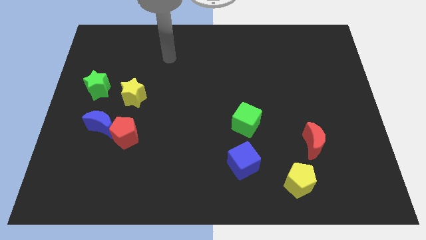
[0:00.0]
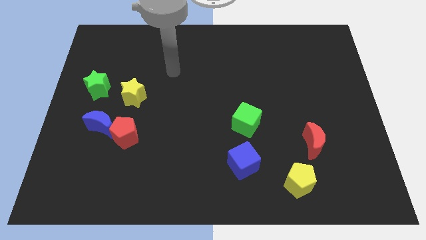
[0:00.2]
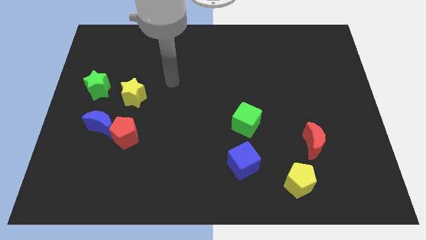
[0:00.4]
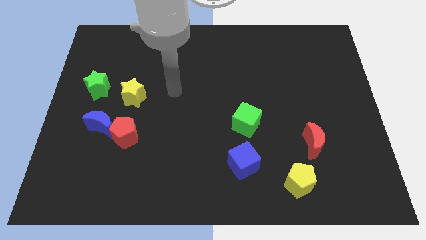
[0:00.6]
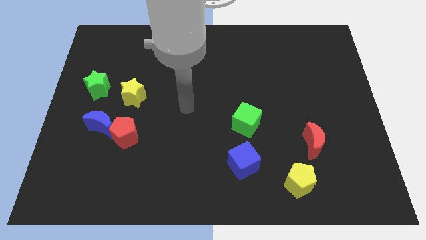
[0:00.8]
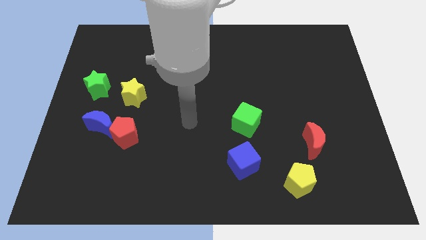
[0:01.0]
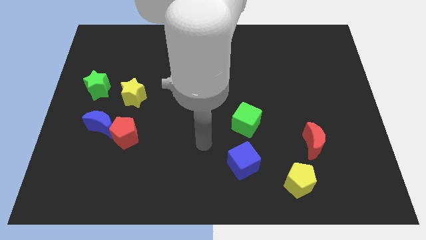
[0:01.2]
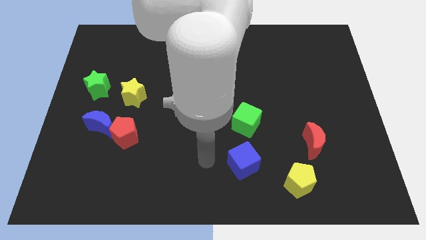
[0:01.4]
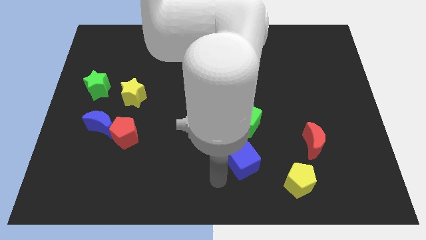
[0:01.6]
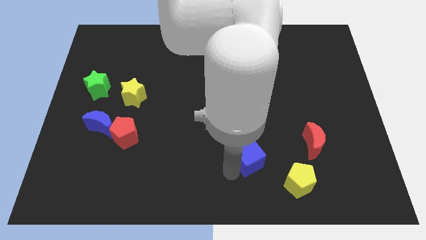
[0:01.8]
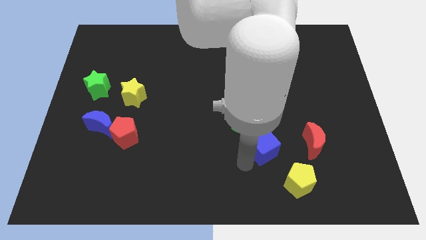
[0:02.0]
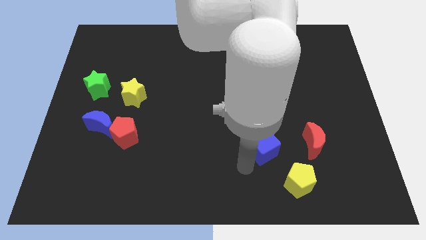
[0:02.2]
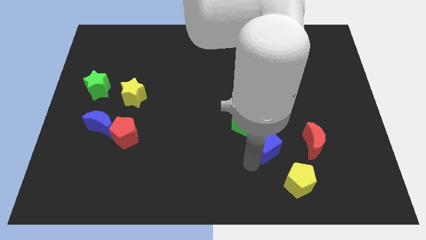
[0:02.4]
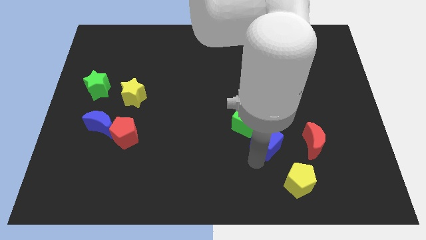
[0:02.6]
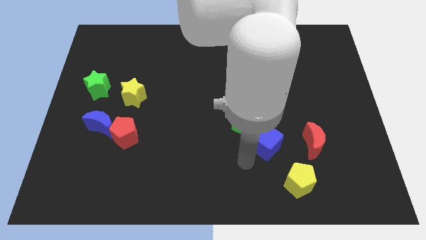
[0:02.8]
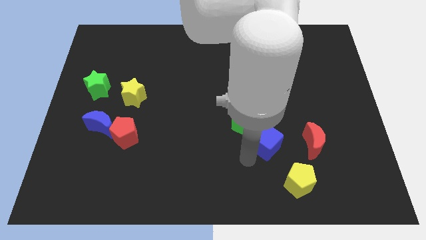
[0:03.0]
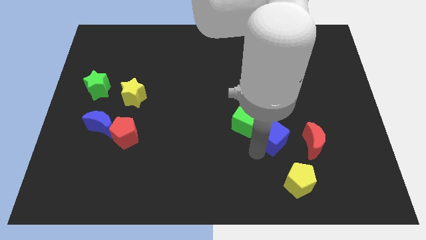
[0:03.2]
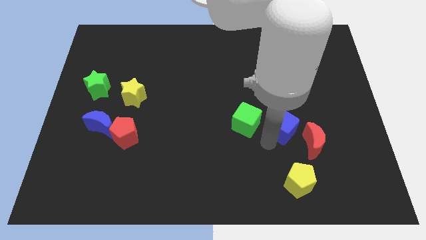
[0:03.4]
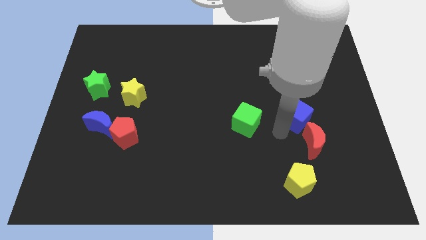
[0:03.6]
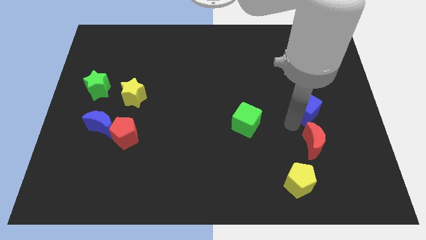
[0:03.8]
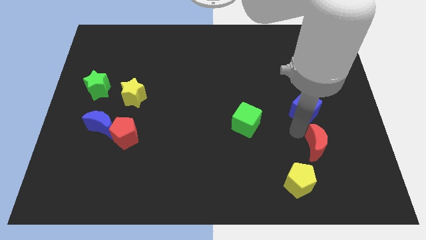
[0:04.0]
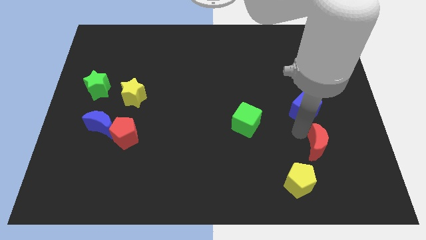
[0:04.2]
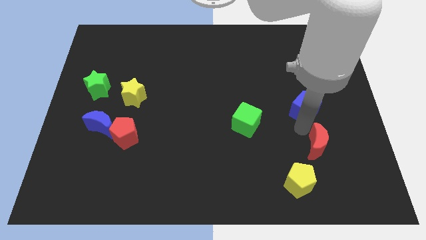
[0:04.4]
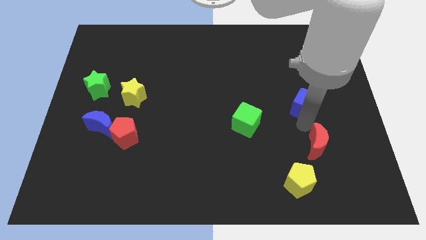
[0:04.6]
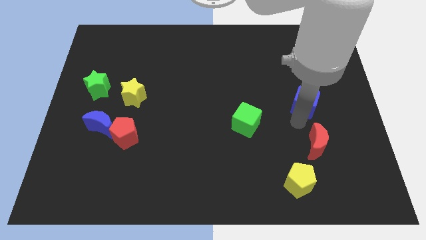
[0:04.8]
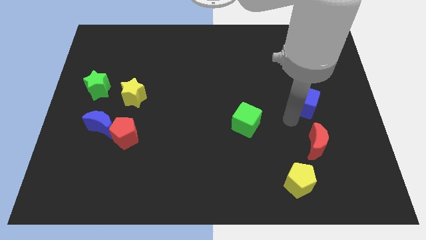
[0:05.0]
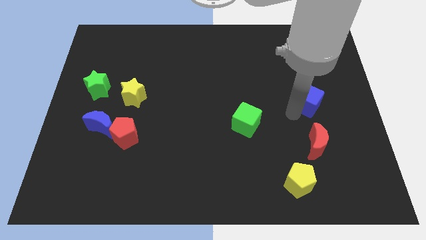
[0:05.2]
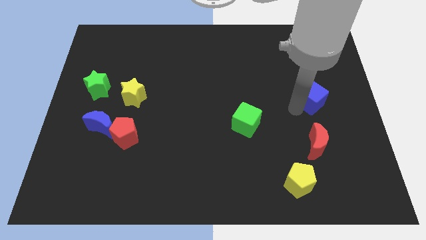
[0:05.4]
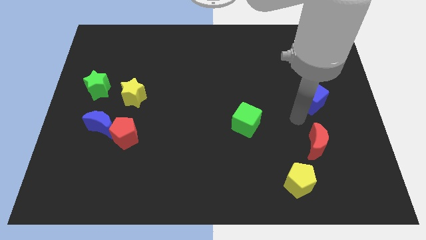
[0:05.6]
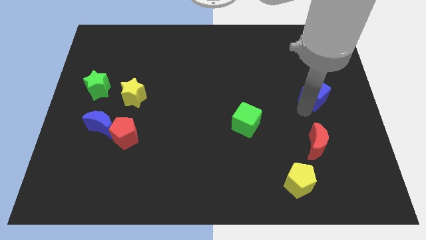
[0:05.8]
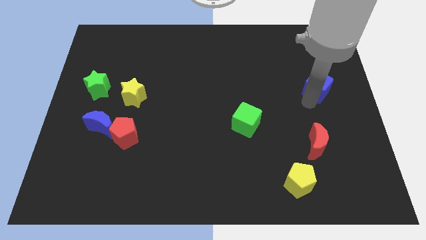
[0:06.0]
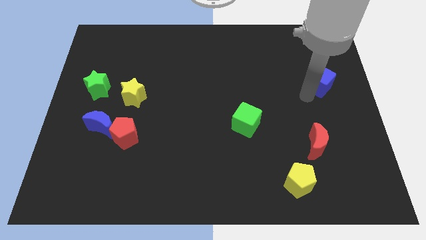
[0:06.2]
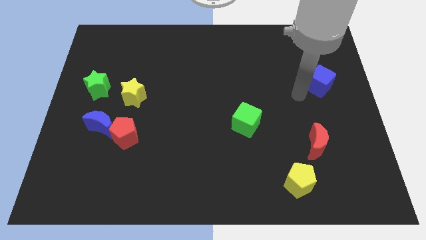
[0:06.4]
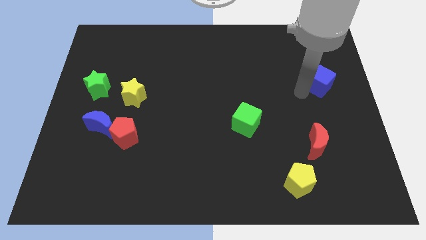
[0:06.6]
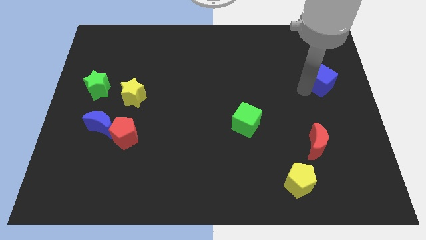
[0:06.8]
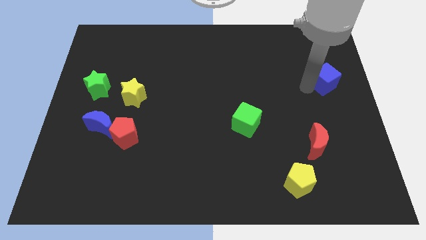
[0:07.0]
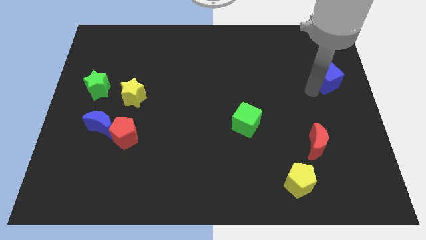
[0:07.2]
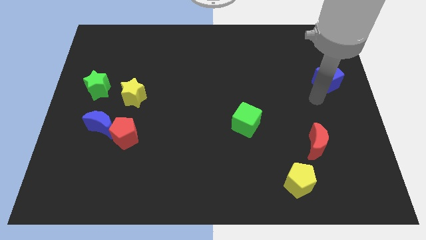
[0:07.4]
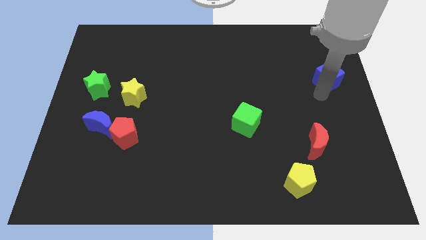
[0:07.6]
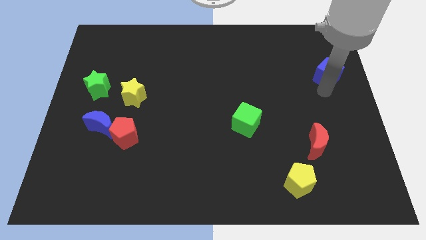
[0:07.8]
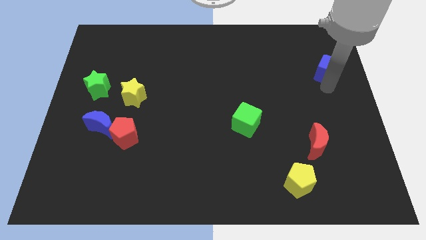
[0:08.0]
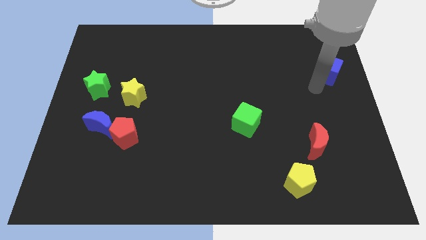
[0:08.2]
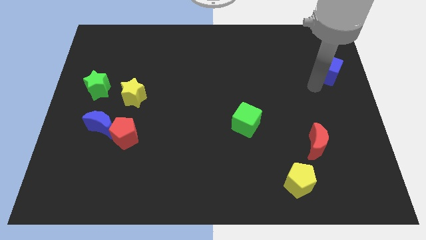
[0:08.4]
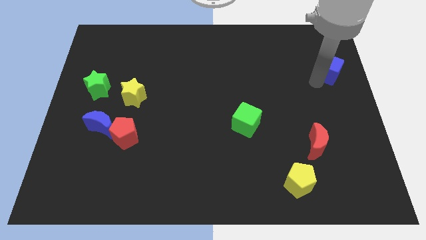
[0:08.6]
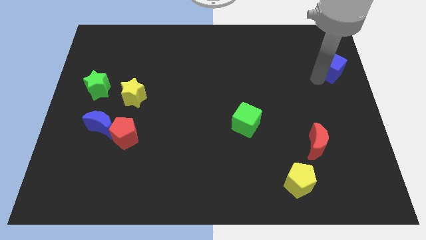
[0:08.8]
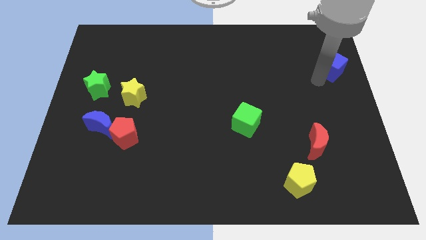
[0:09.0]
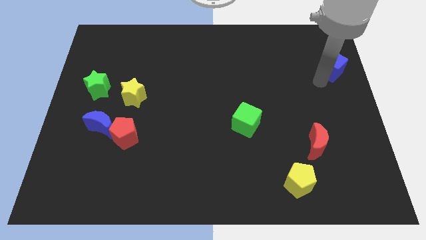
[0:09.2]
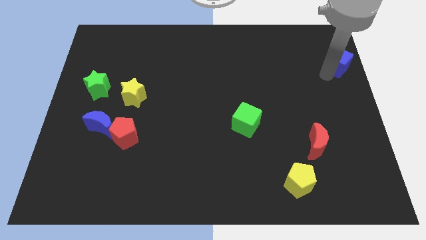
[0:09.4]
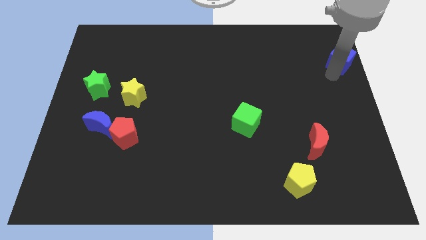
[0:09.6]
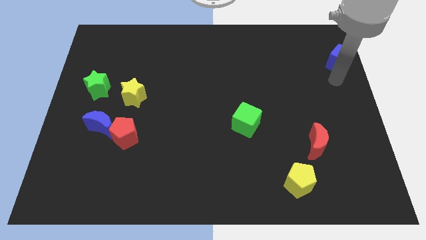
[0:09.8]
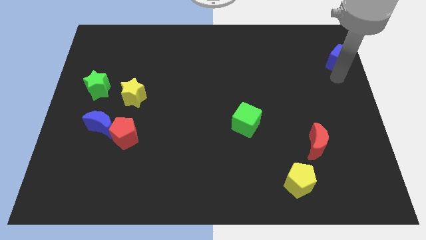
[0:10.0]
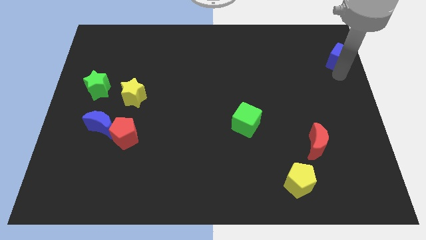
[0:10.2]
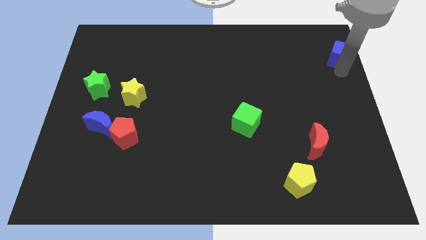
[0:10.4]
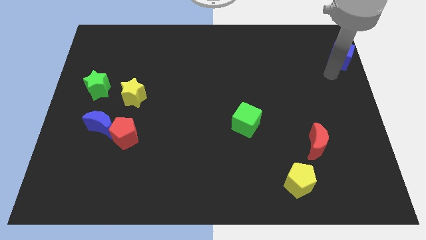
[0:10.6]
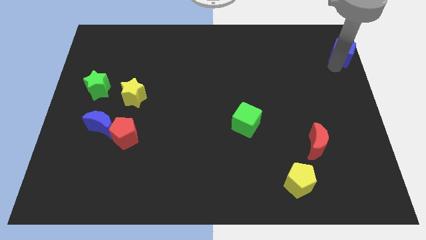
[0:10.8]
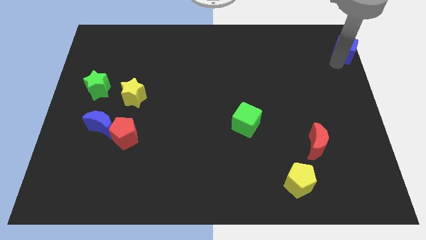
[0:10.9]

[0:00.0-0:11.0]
slide the blue cube to the top right corner
